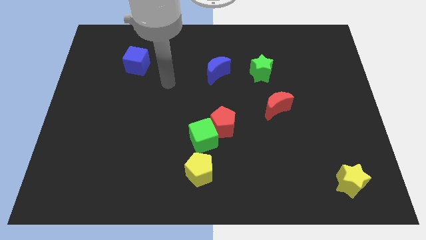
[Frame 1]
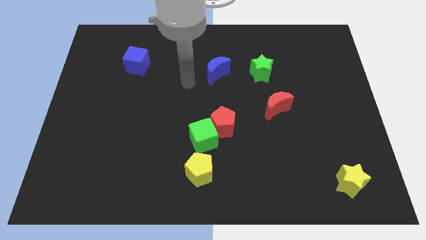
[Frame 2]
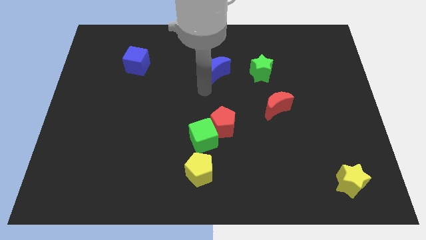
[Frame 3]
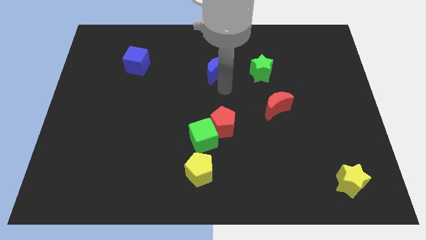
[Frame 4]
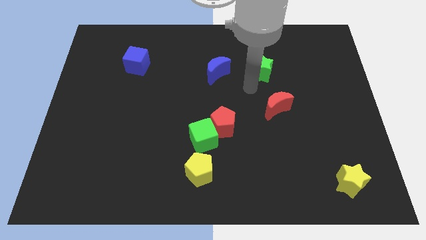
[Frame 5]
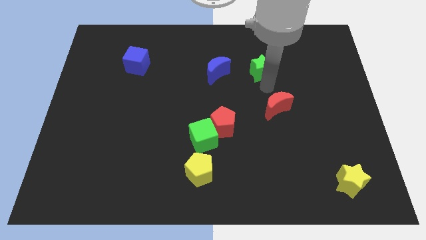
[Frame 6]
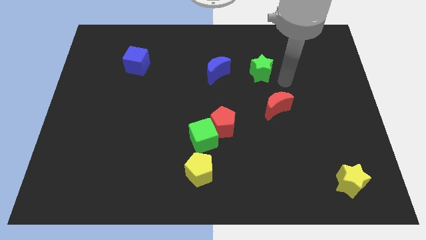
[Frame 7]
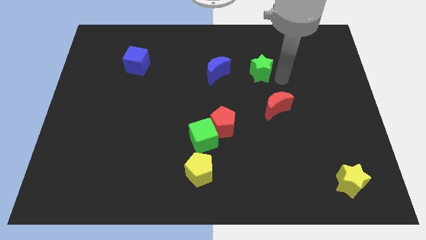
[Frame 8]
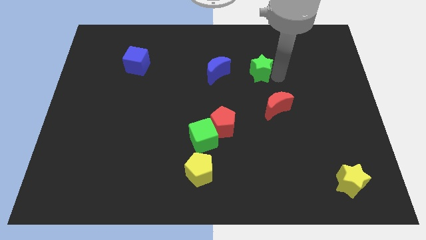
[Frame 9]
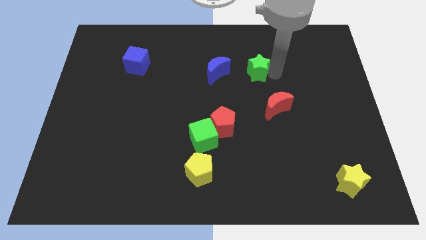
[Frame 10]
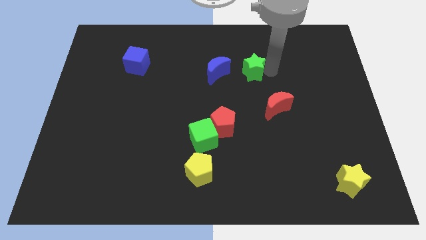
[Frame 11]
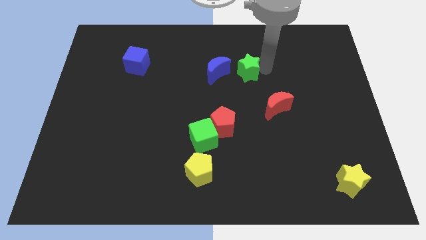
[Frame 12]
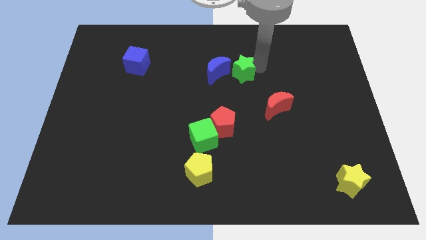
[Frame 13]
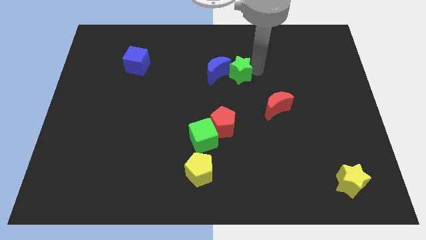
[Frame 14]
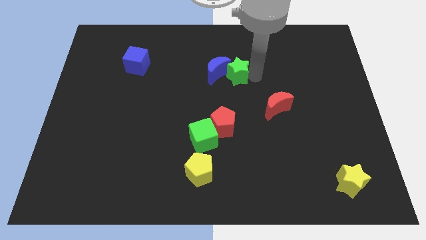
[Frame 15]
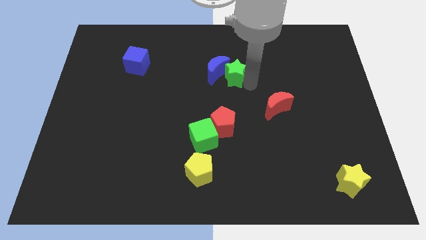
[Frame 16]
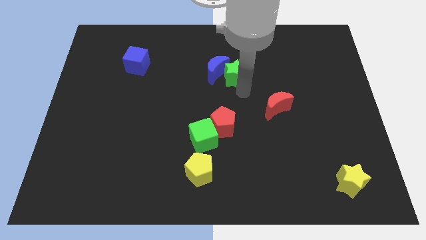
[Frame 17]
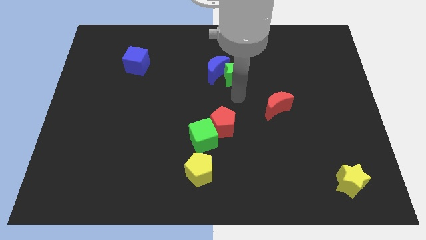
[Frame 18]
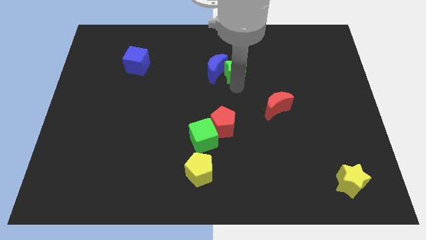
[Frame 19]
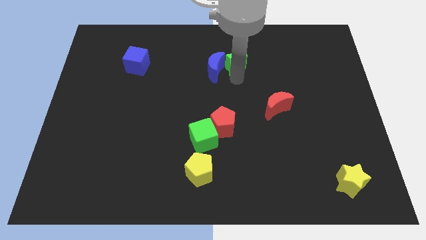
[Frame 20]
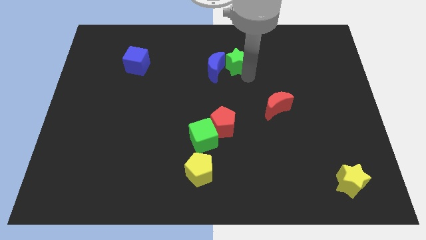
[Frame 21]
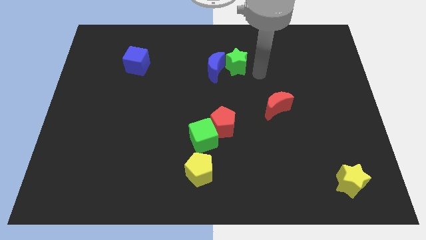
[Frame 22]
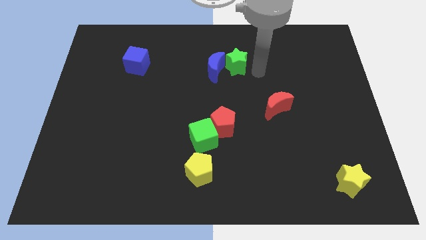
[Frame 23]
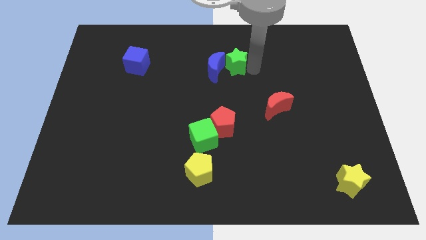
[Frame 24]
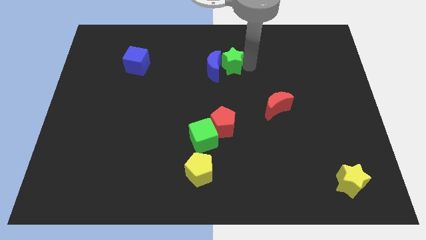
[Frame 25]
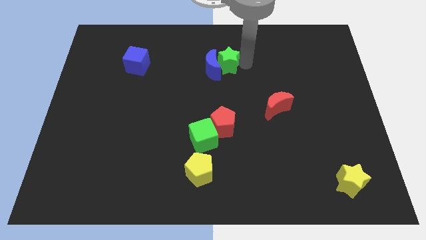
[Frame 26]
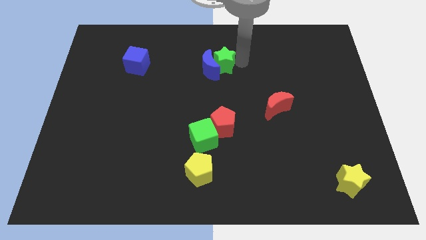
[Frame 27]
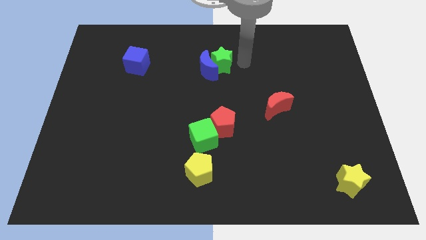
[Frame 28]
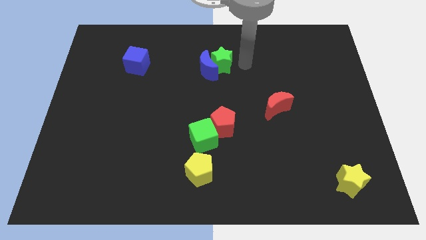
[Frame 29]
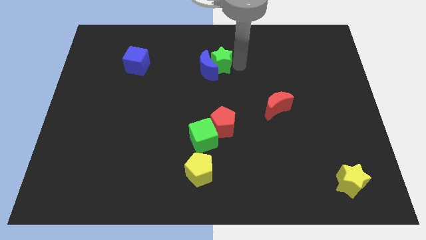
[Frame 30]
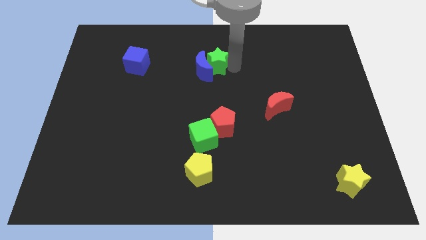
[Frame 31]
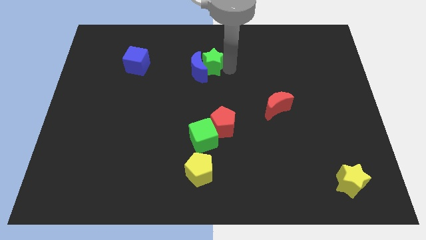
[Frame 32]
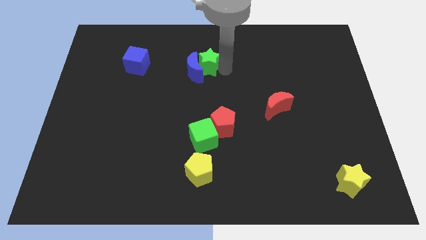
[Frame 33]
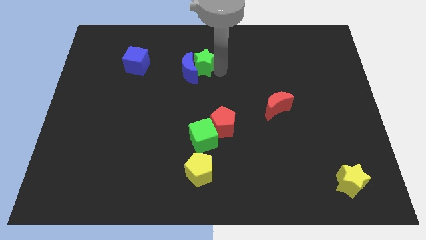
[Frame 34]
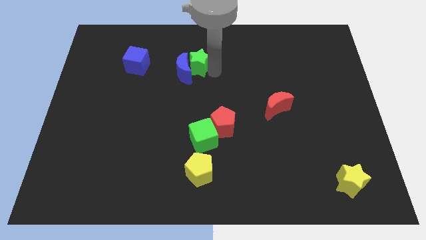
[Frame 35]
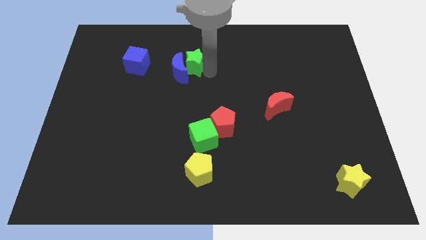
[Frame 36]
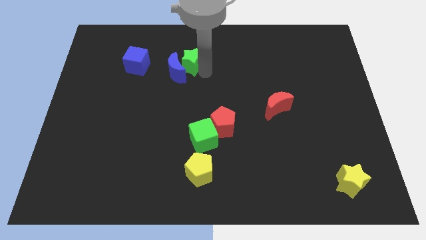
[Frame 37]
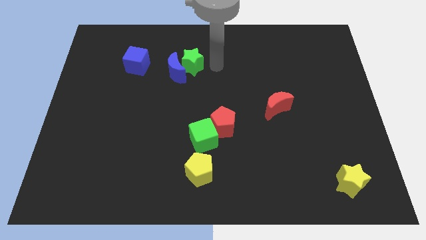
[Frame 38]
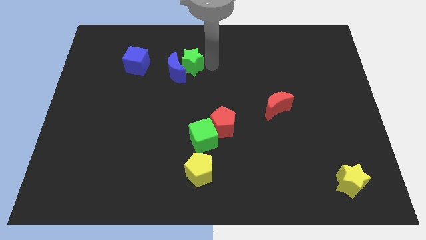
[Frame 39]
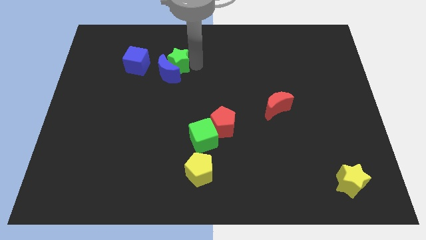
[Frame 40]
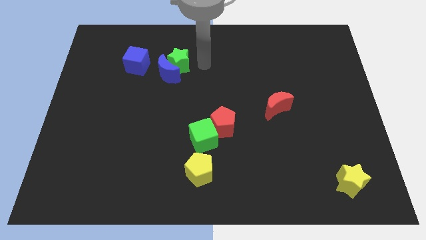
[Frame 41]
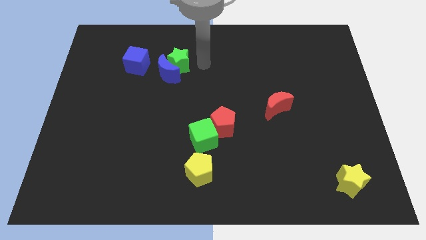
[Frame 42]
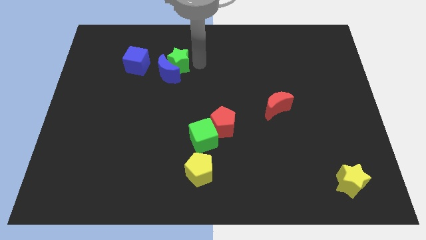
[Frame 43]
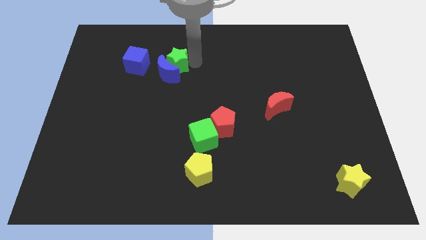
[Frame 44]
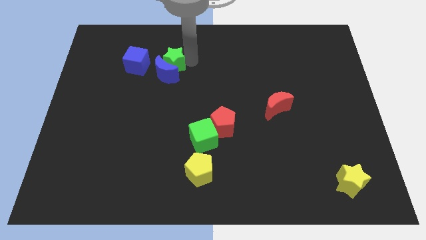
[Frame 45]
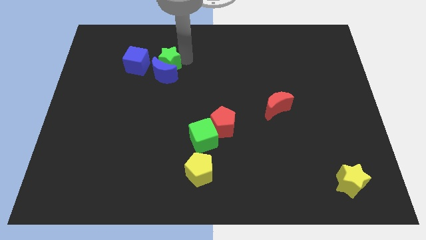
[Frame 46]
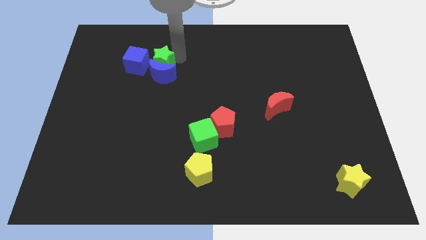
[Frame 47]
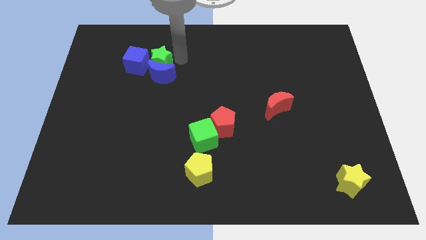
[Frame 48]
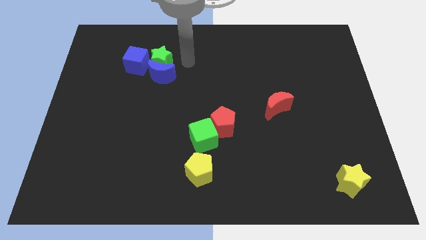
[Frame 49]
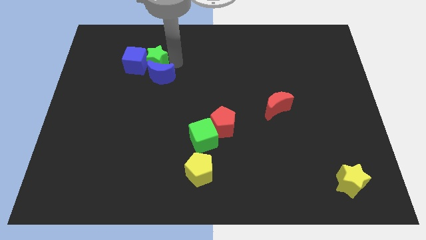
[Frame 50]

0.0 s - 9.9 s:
move the green star to the blue cube

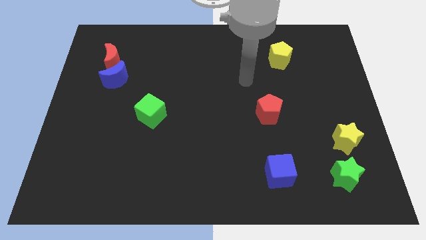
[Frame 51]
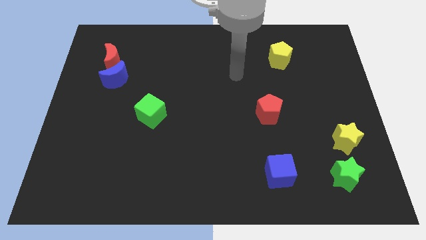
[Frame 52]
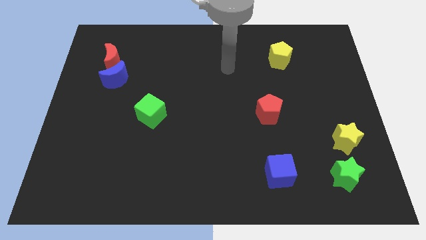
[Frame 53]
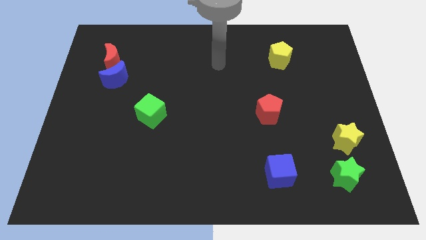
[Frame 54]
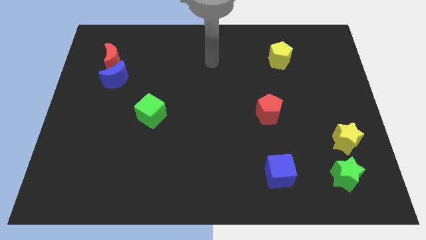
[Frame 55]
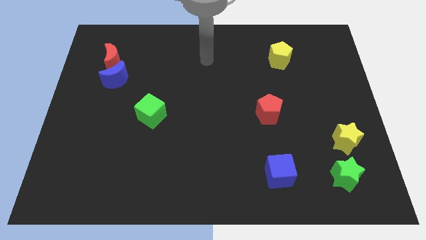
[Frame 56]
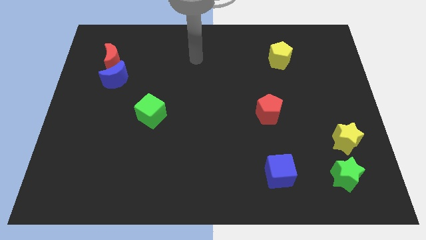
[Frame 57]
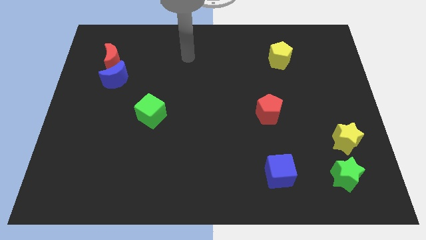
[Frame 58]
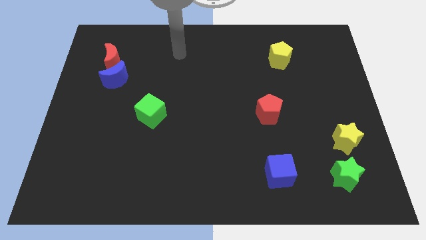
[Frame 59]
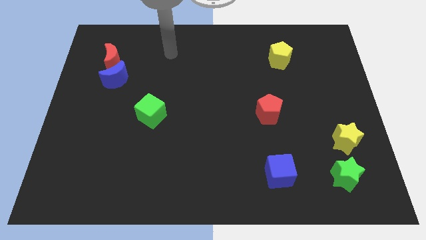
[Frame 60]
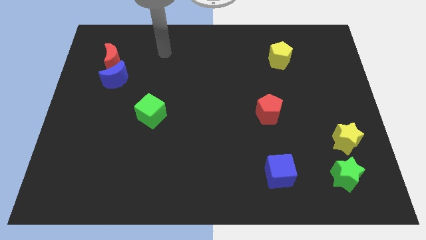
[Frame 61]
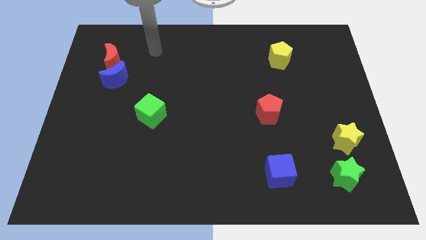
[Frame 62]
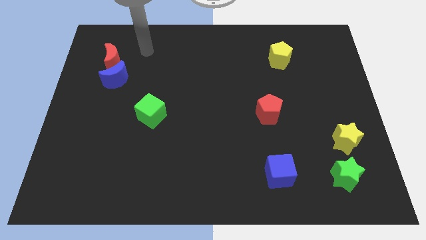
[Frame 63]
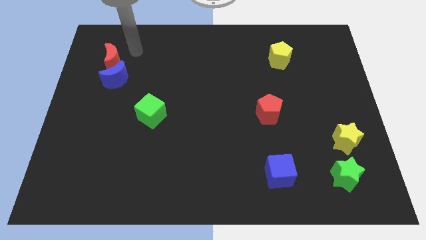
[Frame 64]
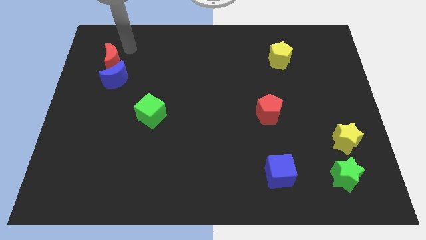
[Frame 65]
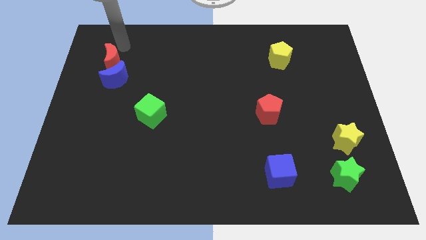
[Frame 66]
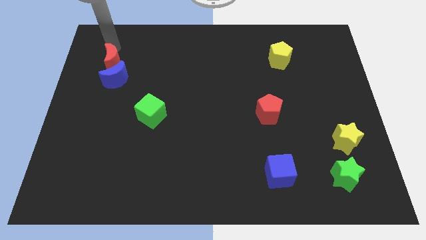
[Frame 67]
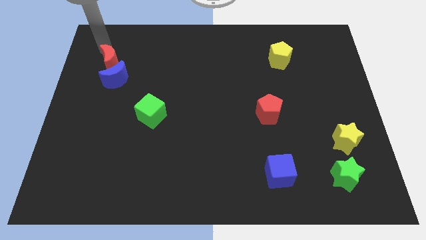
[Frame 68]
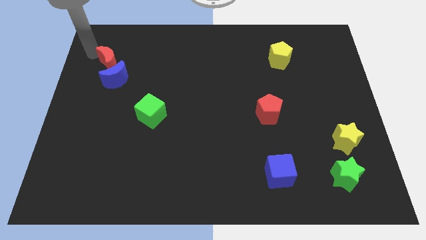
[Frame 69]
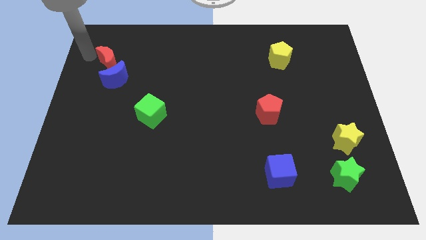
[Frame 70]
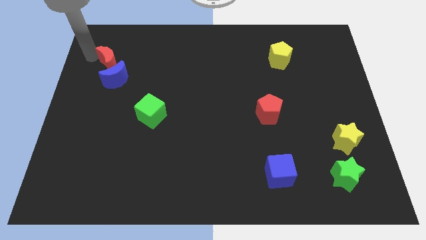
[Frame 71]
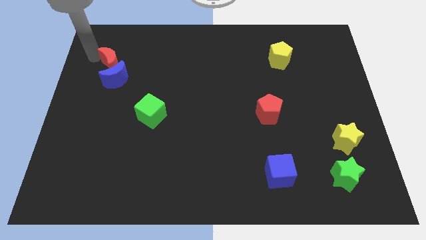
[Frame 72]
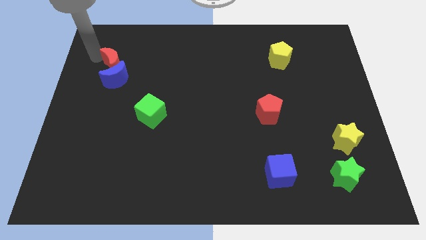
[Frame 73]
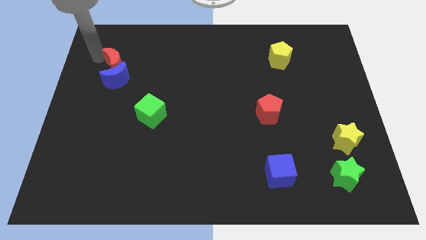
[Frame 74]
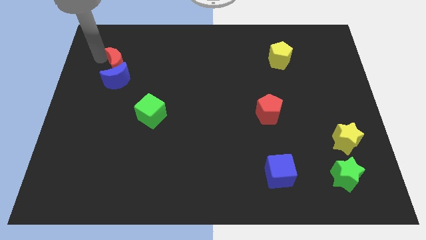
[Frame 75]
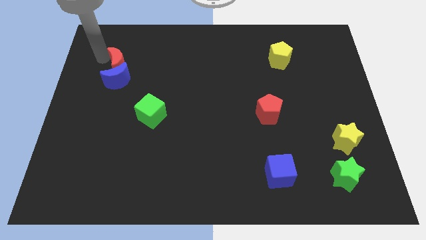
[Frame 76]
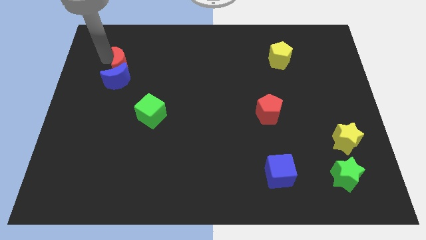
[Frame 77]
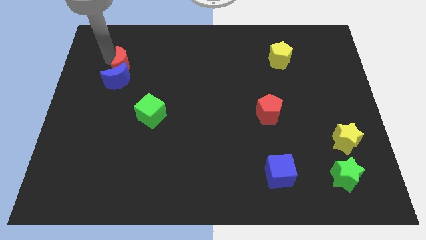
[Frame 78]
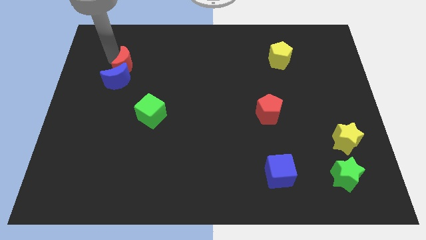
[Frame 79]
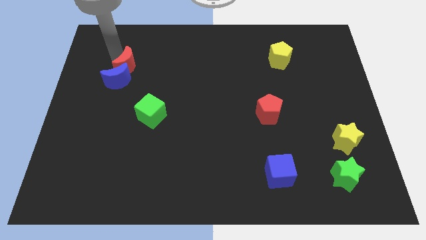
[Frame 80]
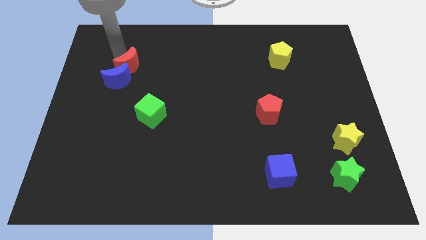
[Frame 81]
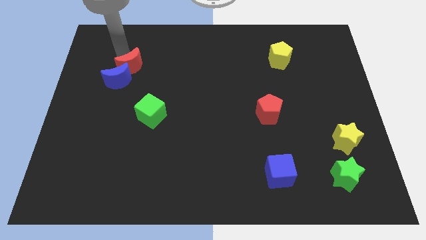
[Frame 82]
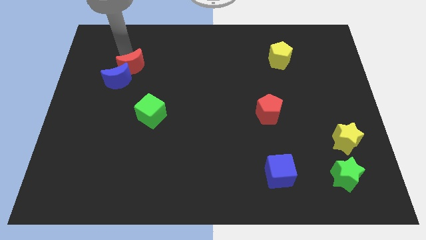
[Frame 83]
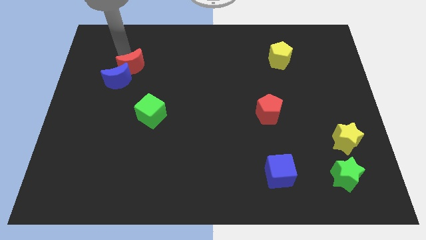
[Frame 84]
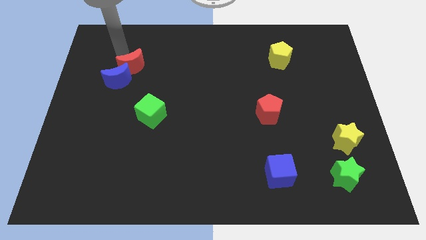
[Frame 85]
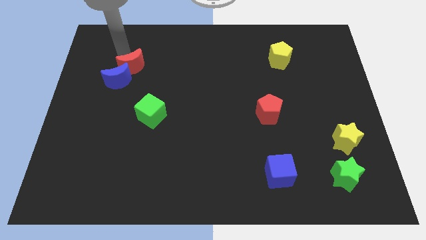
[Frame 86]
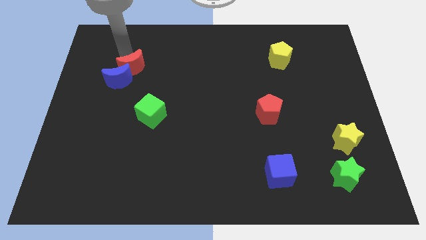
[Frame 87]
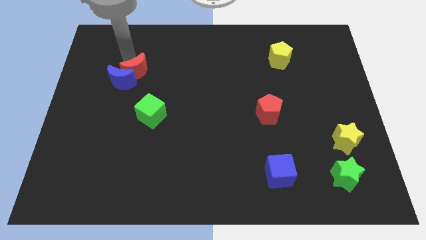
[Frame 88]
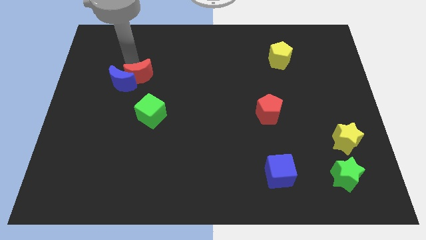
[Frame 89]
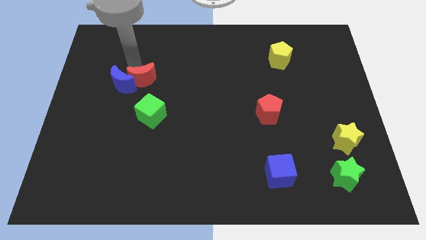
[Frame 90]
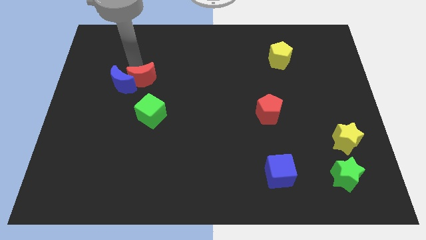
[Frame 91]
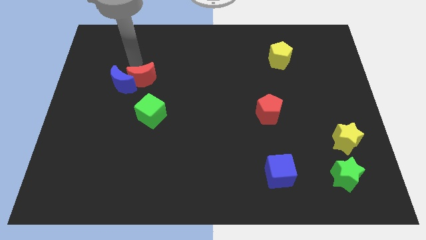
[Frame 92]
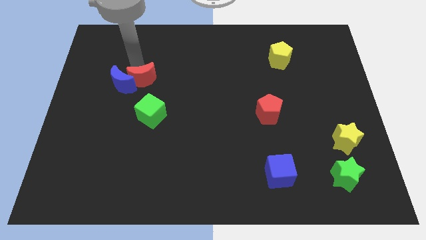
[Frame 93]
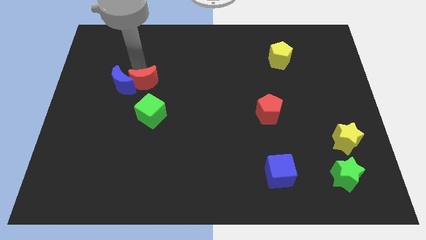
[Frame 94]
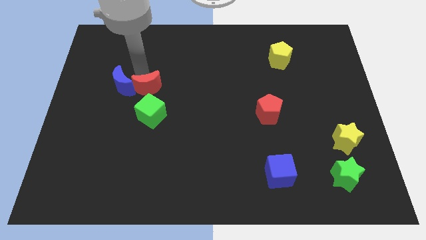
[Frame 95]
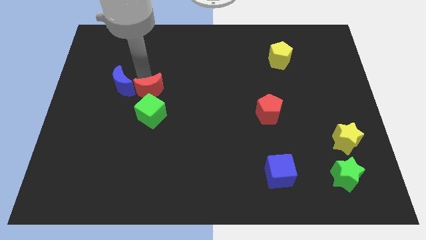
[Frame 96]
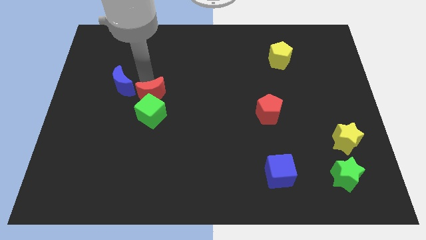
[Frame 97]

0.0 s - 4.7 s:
put the red moon next to the green cube
